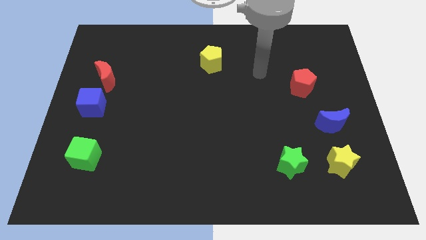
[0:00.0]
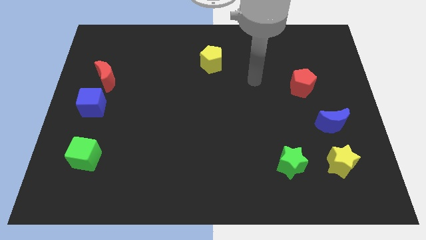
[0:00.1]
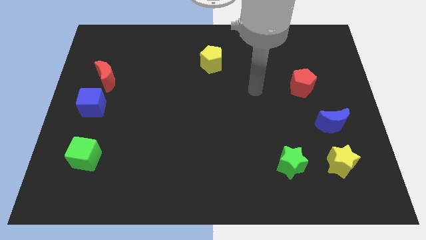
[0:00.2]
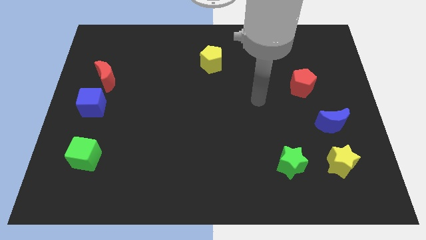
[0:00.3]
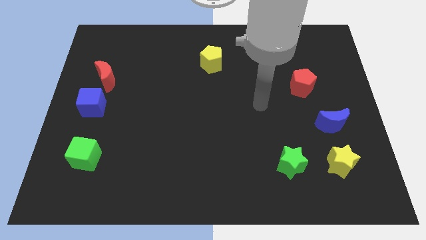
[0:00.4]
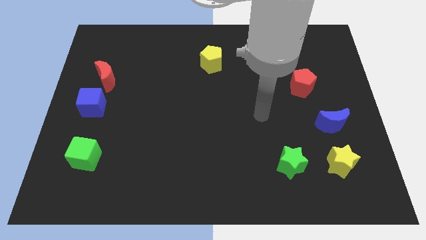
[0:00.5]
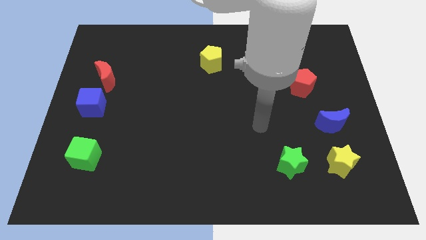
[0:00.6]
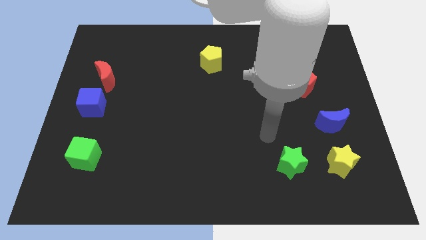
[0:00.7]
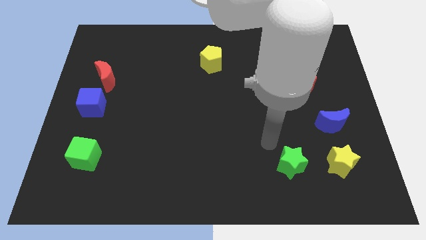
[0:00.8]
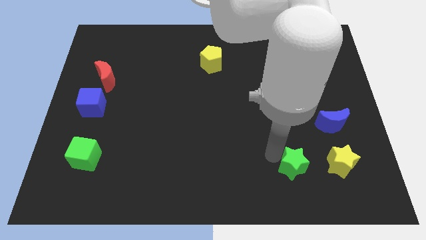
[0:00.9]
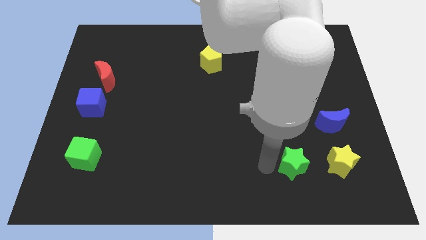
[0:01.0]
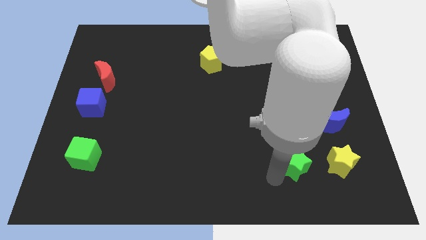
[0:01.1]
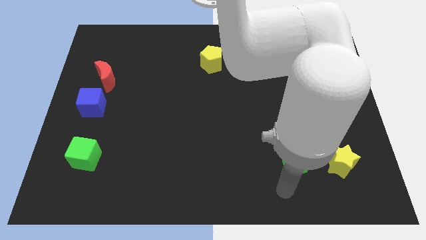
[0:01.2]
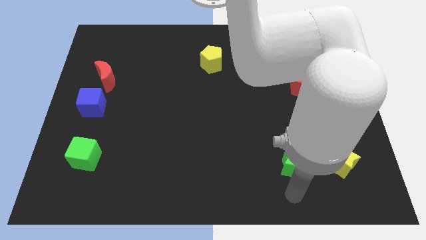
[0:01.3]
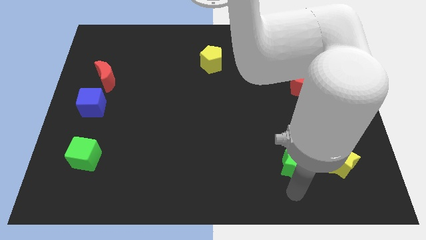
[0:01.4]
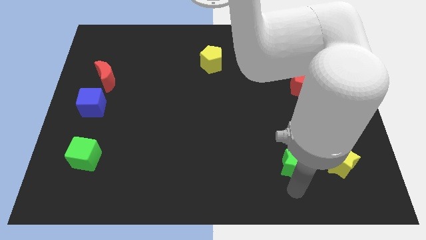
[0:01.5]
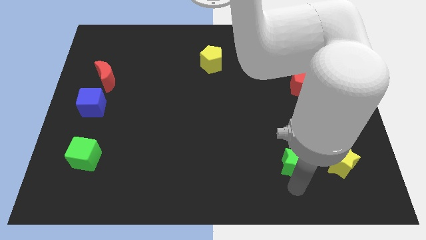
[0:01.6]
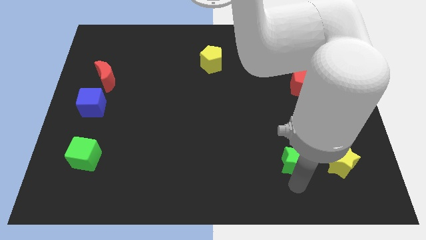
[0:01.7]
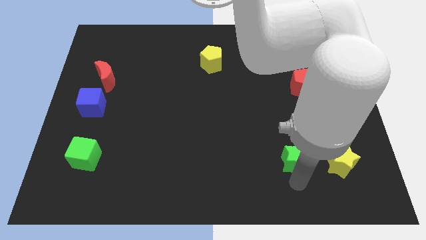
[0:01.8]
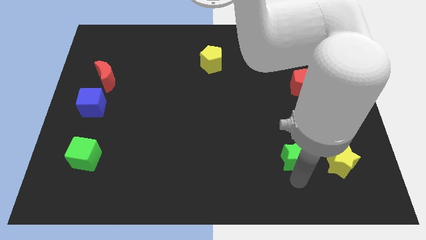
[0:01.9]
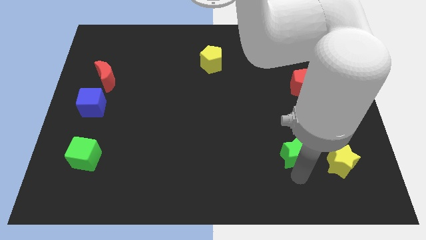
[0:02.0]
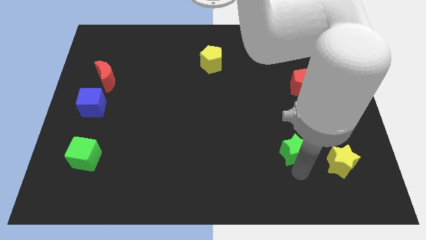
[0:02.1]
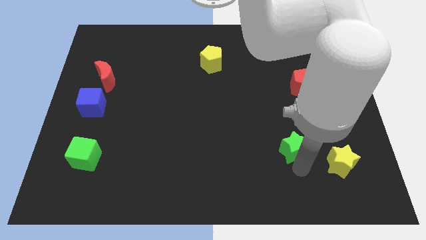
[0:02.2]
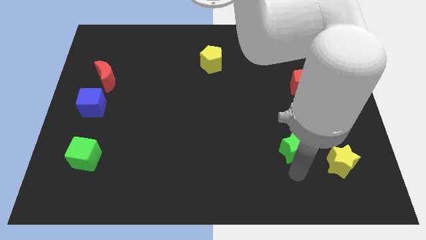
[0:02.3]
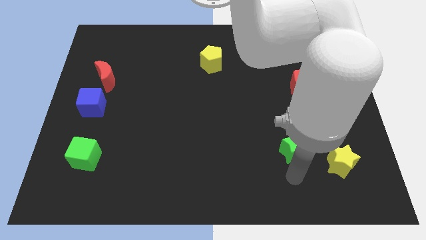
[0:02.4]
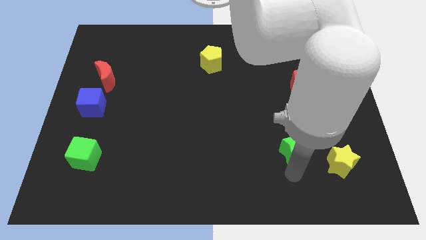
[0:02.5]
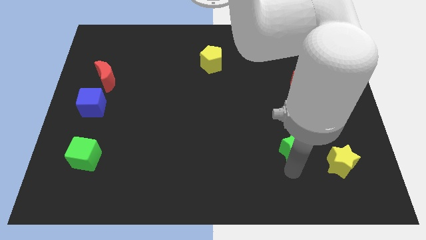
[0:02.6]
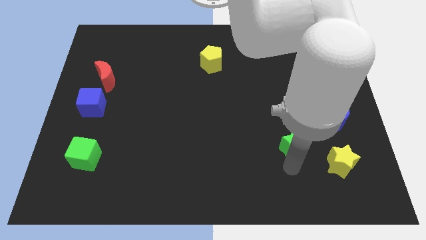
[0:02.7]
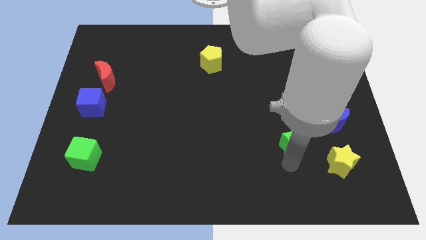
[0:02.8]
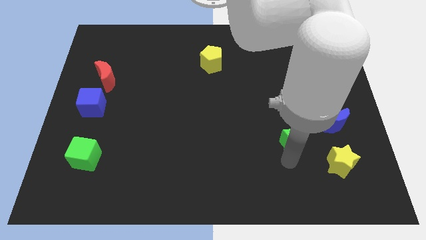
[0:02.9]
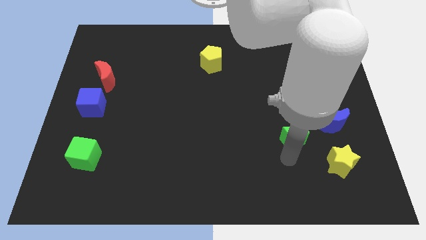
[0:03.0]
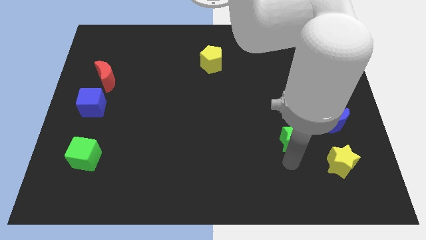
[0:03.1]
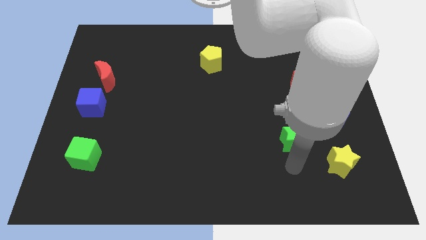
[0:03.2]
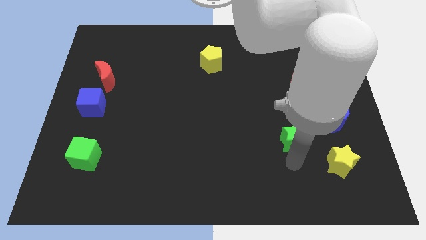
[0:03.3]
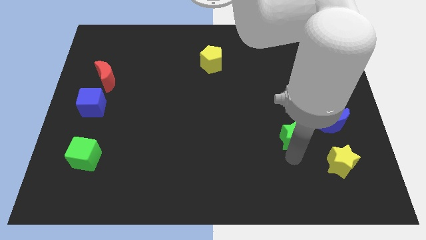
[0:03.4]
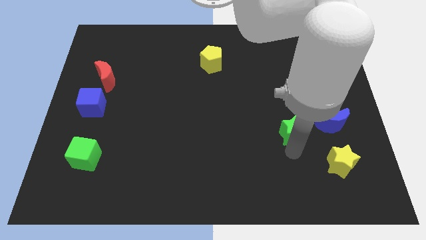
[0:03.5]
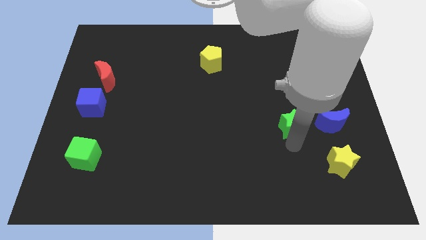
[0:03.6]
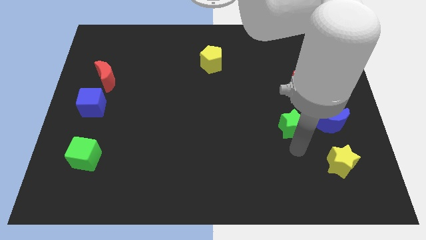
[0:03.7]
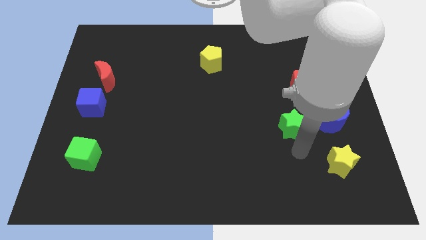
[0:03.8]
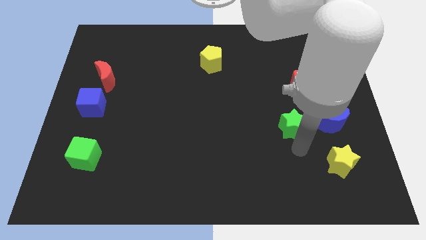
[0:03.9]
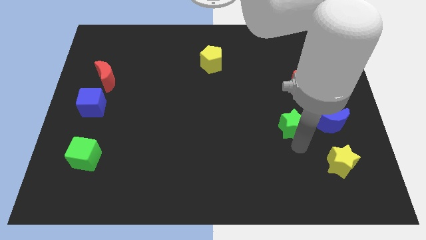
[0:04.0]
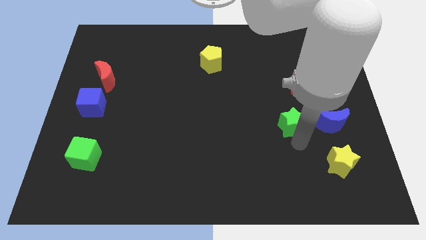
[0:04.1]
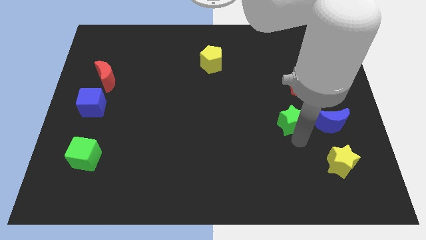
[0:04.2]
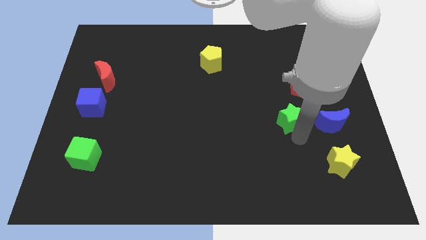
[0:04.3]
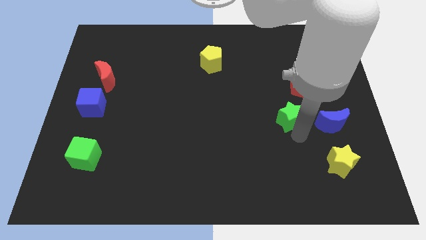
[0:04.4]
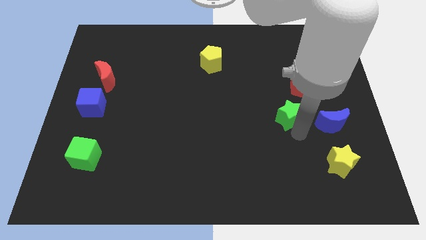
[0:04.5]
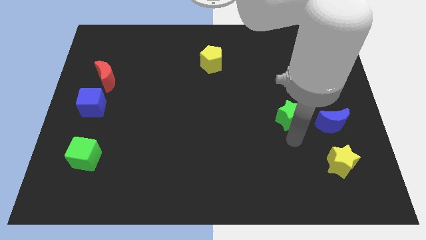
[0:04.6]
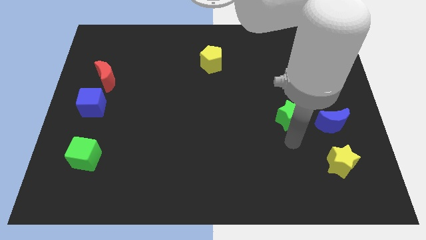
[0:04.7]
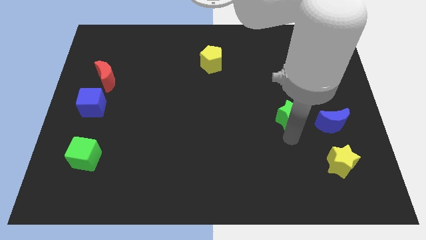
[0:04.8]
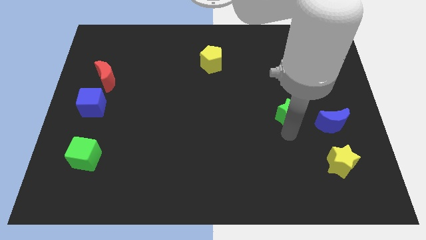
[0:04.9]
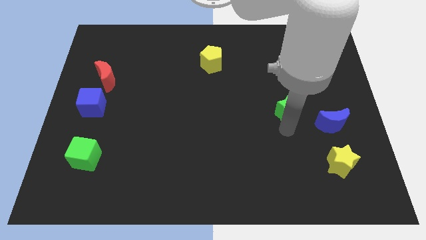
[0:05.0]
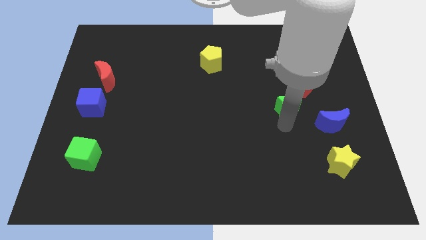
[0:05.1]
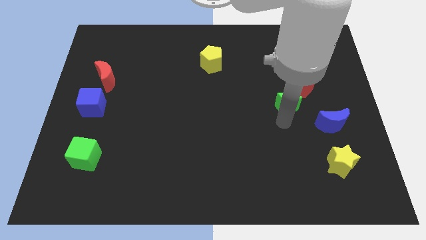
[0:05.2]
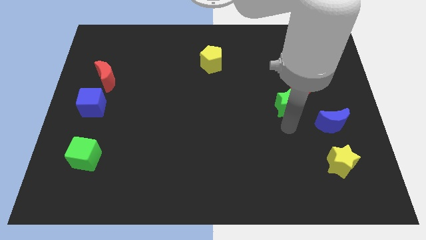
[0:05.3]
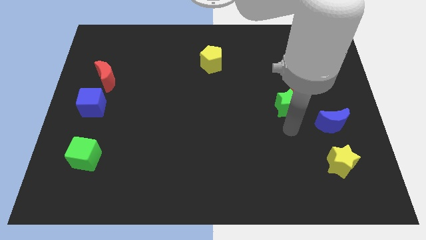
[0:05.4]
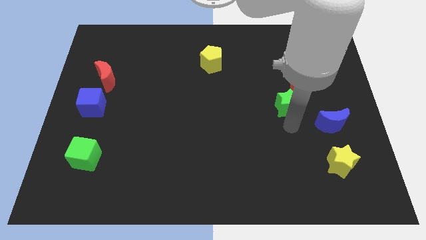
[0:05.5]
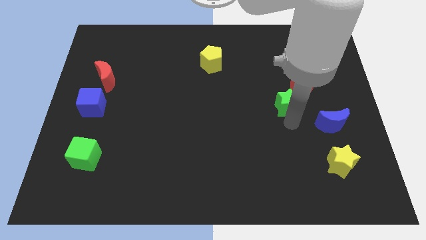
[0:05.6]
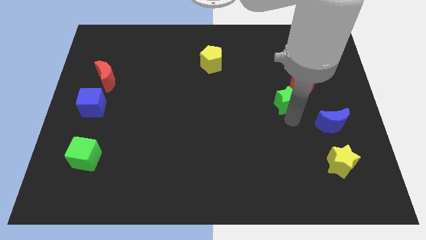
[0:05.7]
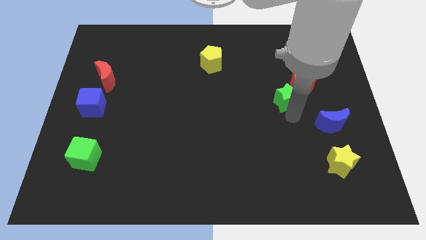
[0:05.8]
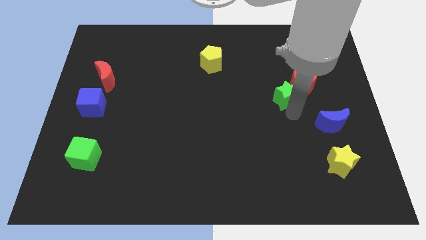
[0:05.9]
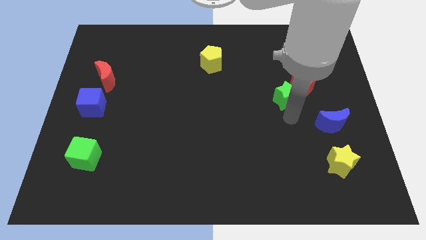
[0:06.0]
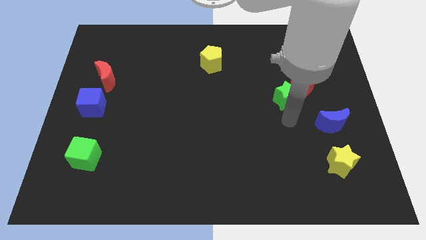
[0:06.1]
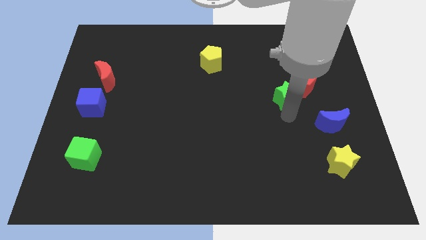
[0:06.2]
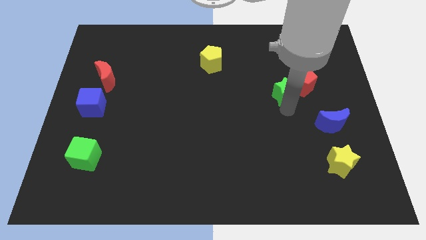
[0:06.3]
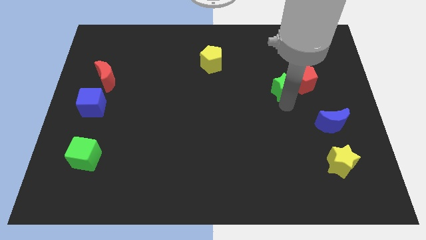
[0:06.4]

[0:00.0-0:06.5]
move the green star upwards

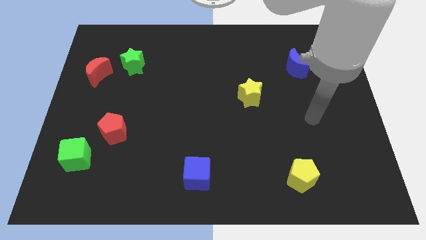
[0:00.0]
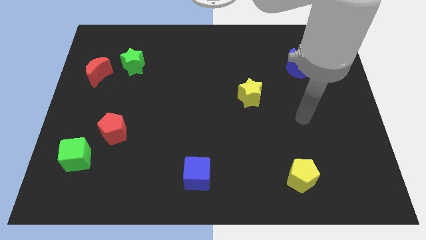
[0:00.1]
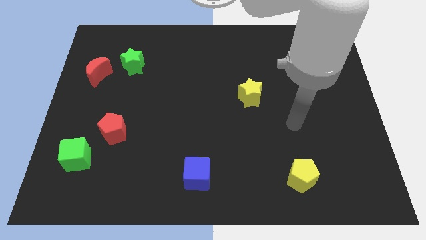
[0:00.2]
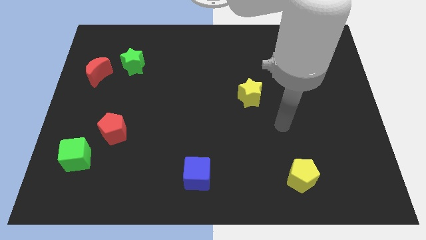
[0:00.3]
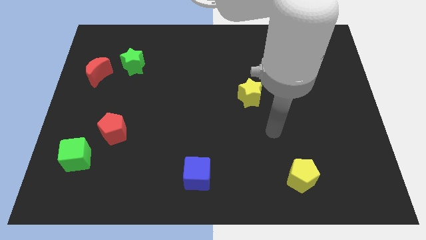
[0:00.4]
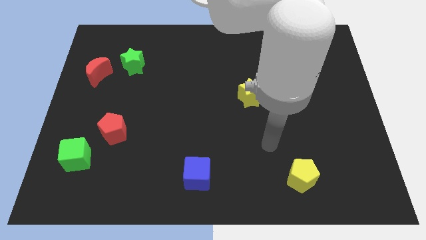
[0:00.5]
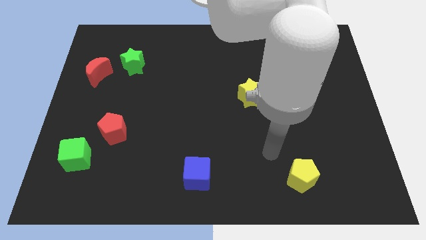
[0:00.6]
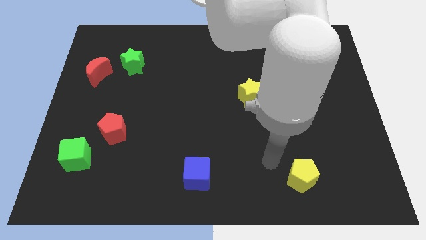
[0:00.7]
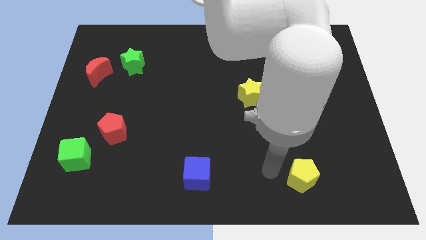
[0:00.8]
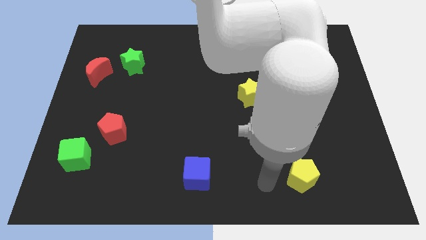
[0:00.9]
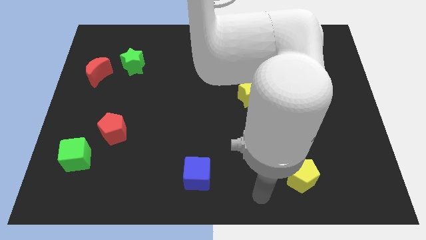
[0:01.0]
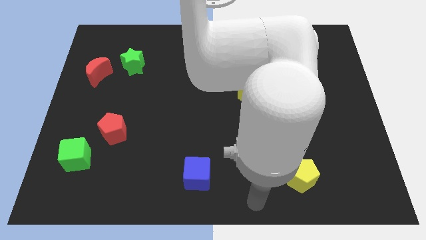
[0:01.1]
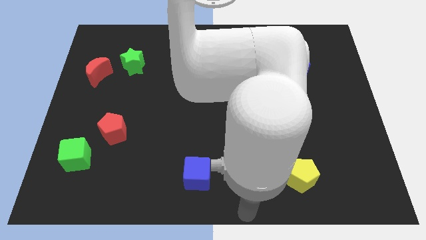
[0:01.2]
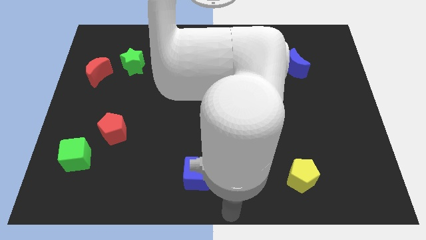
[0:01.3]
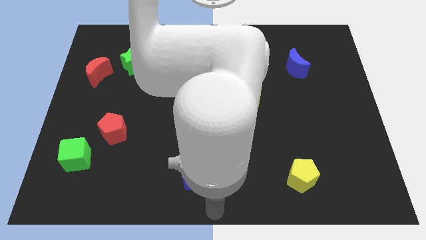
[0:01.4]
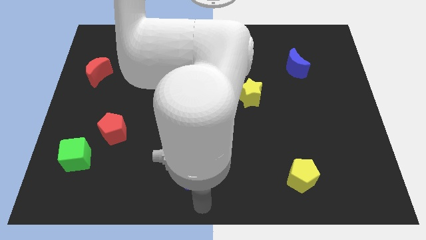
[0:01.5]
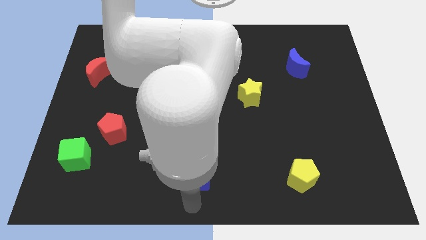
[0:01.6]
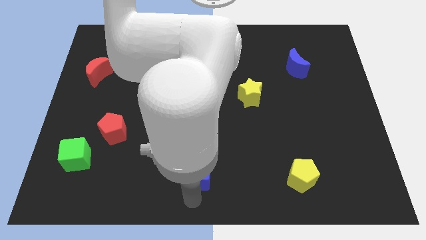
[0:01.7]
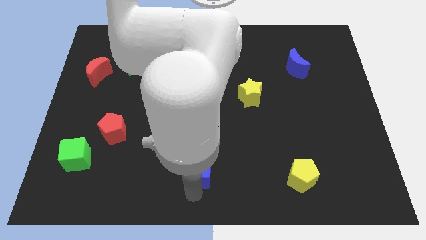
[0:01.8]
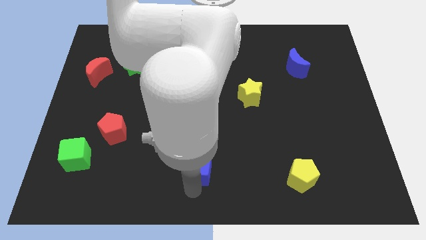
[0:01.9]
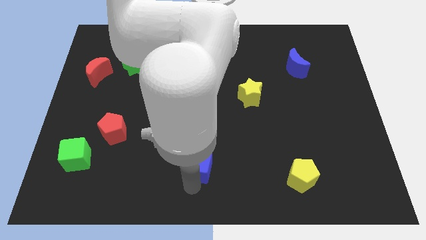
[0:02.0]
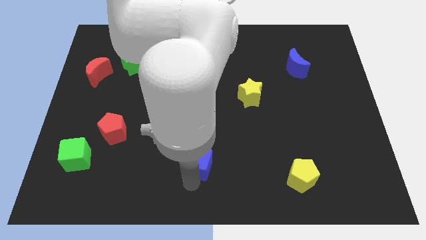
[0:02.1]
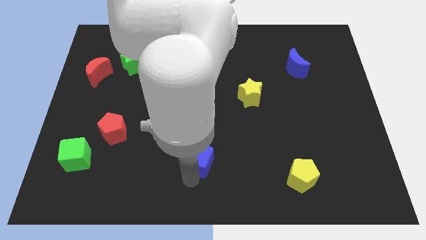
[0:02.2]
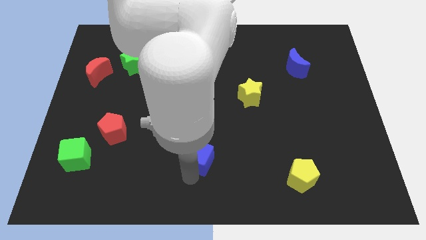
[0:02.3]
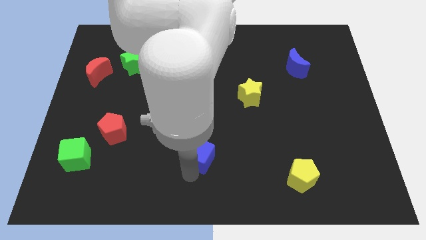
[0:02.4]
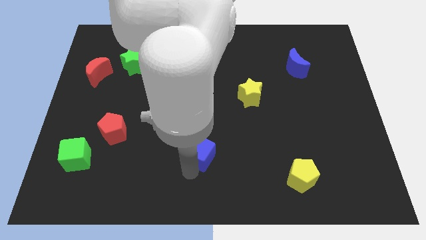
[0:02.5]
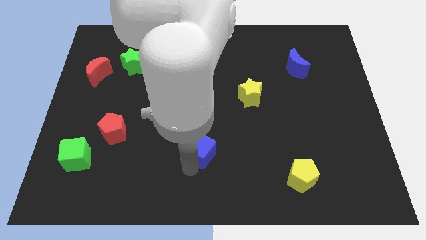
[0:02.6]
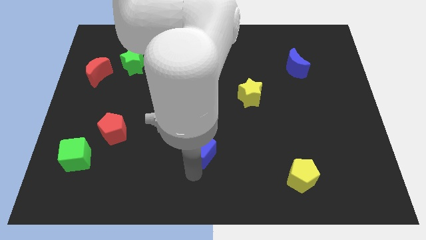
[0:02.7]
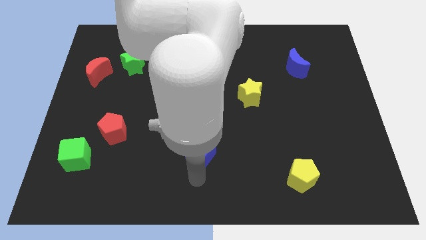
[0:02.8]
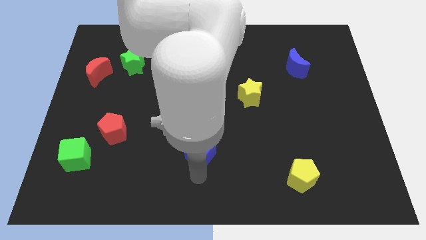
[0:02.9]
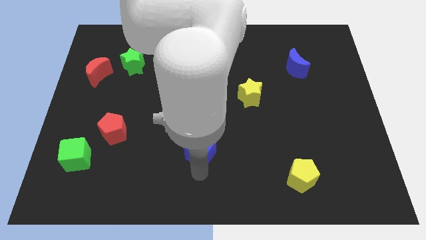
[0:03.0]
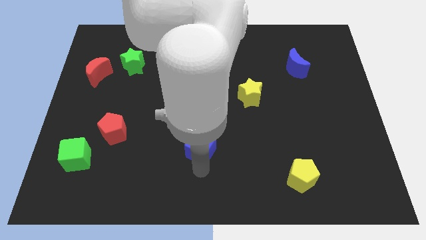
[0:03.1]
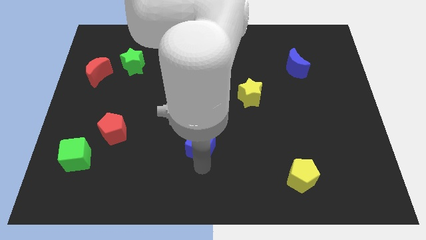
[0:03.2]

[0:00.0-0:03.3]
slightly slide the blue cube up
